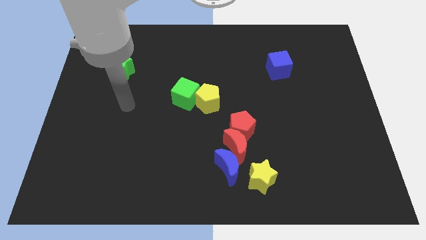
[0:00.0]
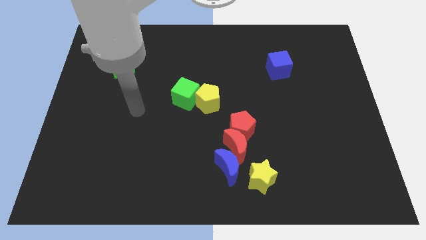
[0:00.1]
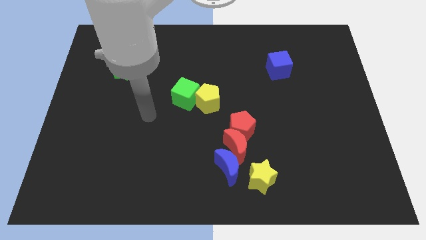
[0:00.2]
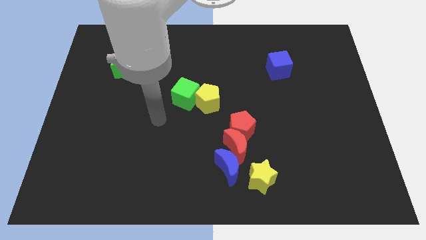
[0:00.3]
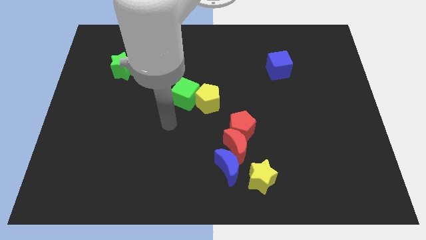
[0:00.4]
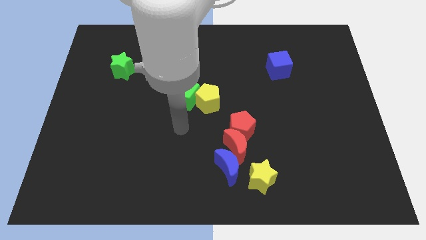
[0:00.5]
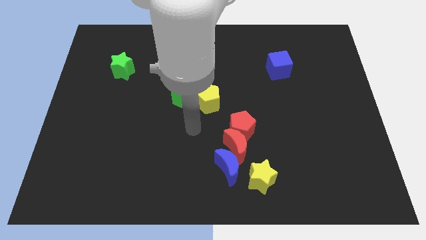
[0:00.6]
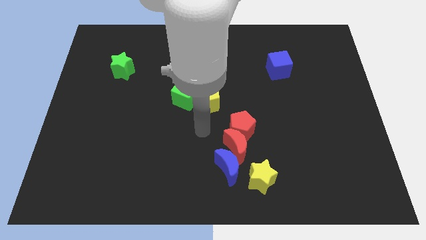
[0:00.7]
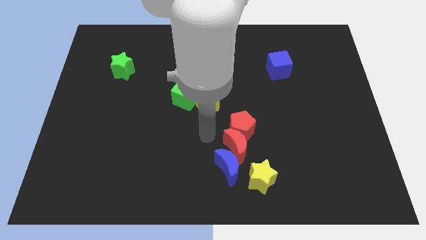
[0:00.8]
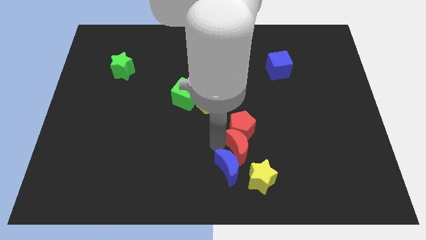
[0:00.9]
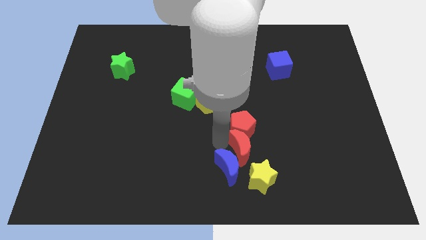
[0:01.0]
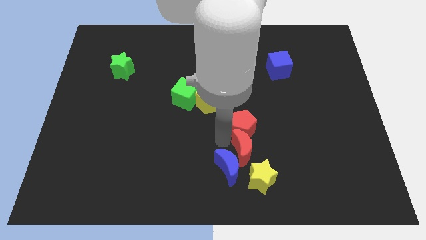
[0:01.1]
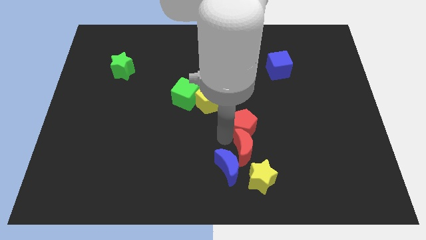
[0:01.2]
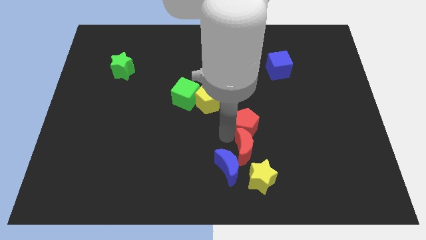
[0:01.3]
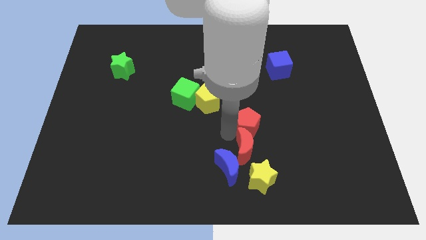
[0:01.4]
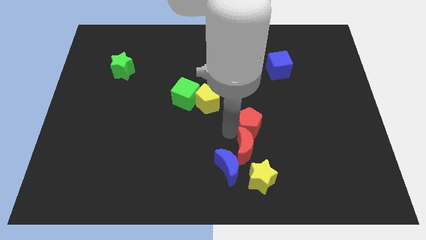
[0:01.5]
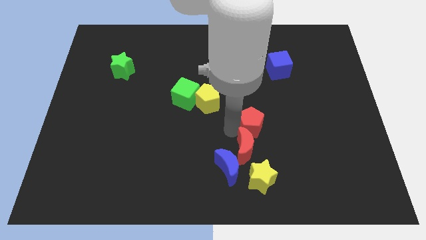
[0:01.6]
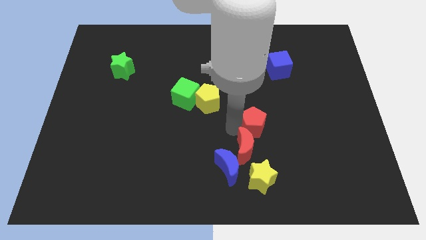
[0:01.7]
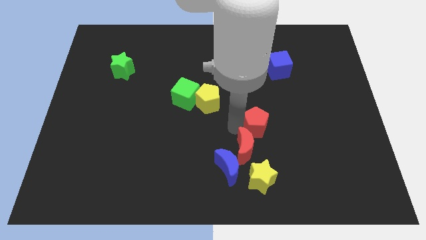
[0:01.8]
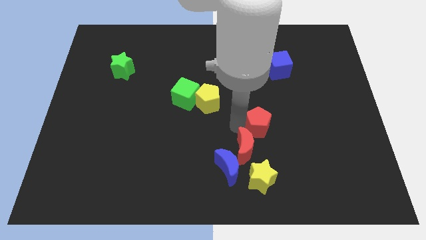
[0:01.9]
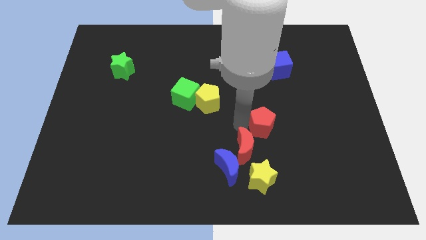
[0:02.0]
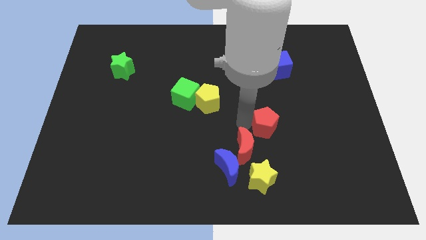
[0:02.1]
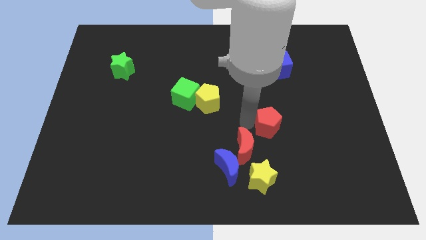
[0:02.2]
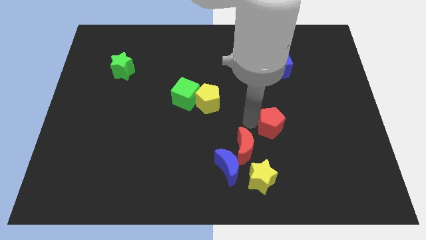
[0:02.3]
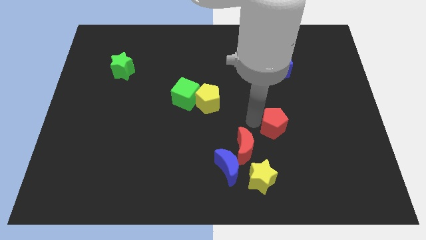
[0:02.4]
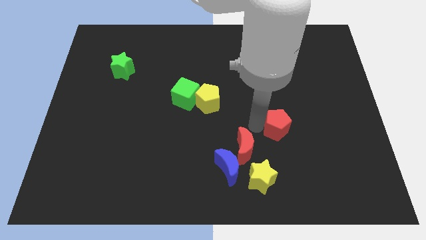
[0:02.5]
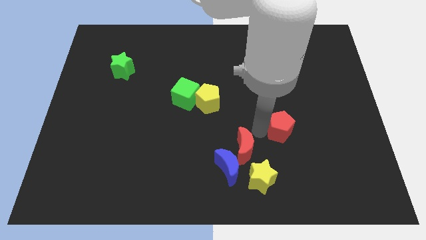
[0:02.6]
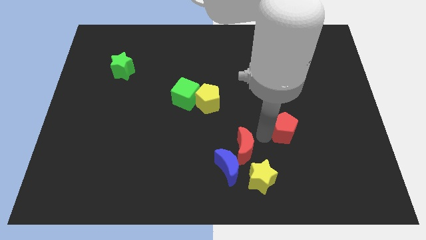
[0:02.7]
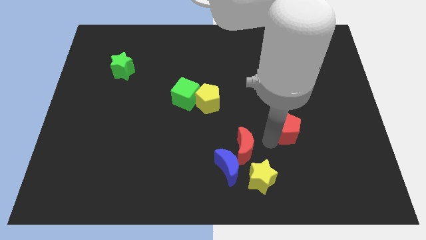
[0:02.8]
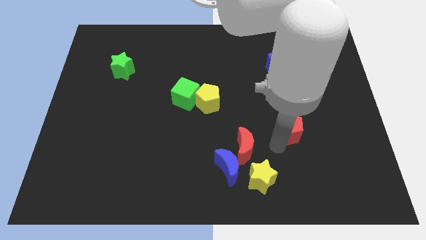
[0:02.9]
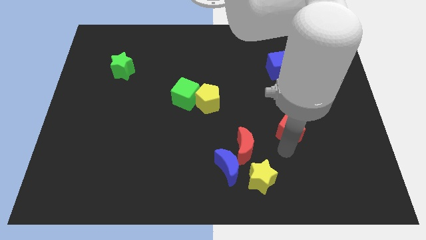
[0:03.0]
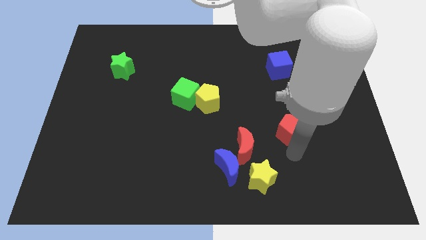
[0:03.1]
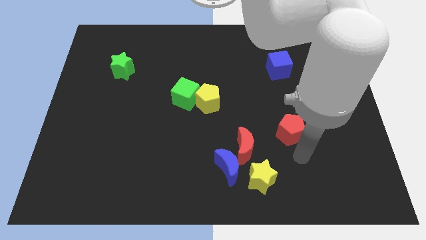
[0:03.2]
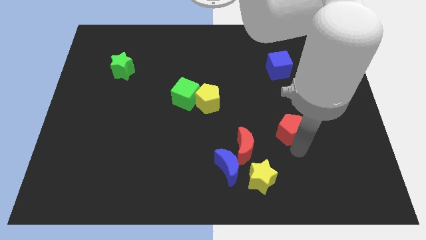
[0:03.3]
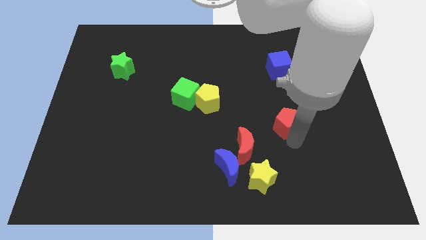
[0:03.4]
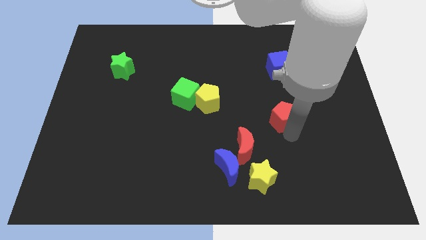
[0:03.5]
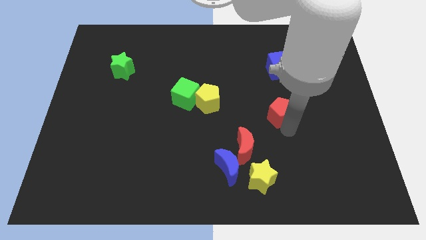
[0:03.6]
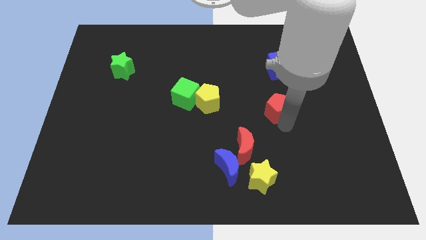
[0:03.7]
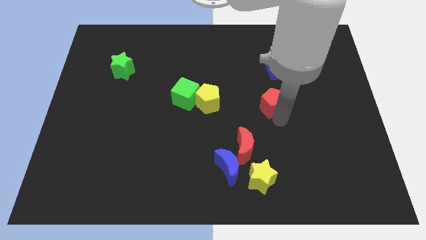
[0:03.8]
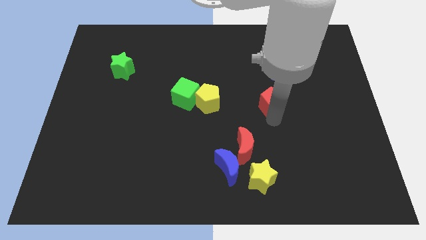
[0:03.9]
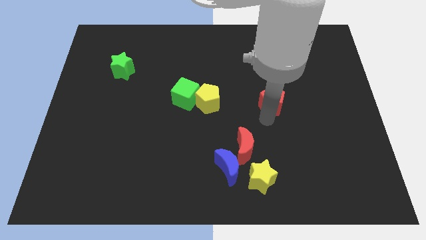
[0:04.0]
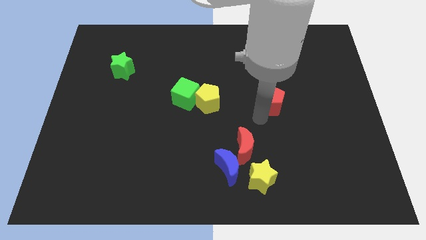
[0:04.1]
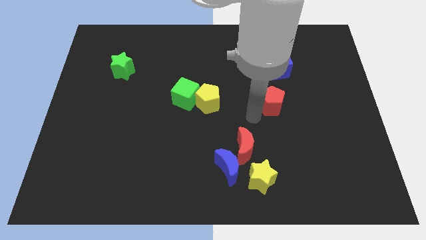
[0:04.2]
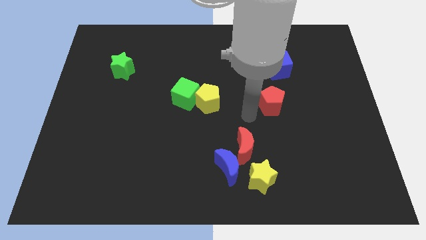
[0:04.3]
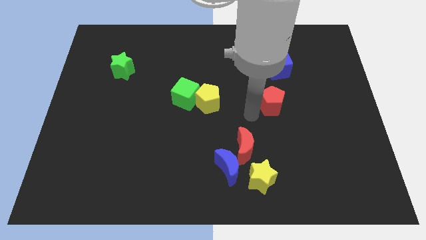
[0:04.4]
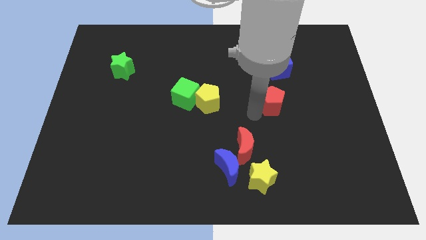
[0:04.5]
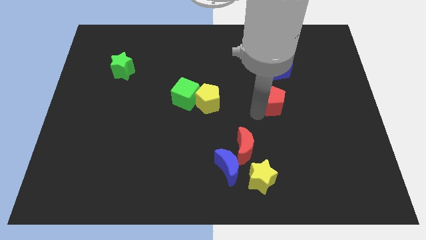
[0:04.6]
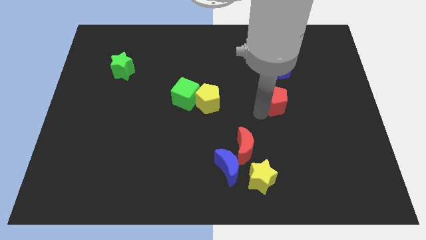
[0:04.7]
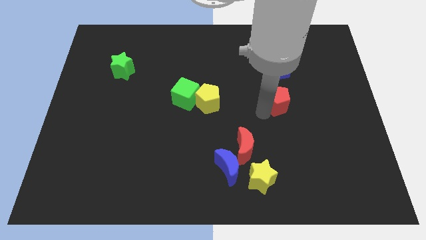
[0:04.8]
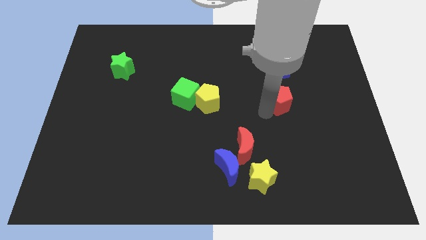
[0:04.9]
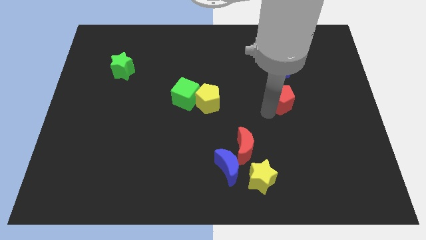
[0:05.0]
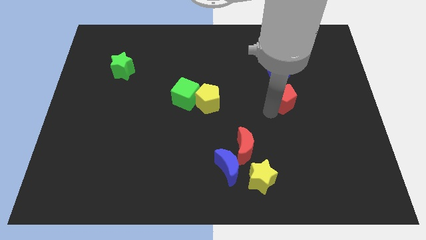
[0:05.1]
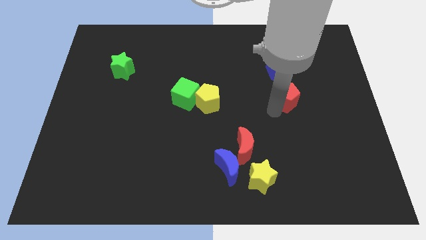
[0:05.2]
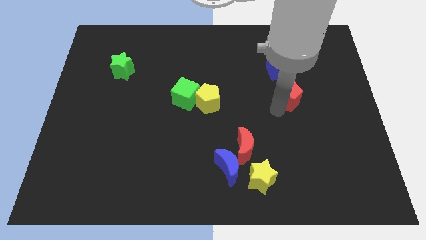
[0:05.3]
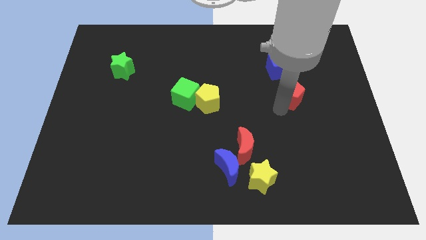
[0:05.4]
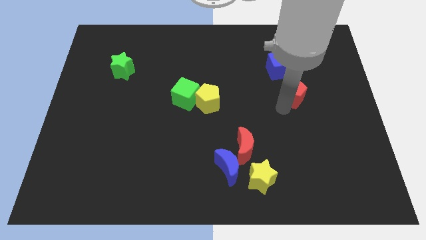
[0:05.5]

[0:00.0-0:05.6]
move the red pentagon diagonally down and to the right of the blue cube

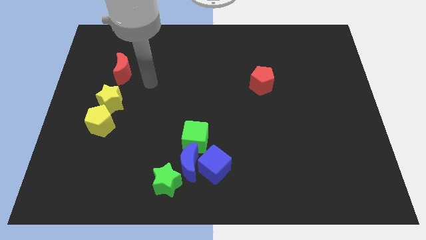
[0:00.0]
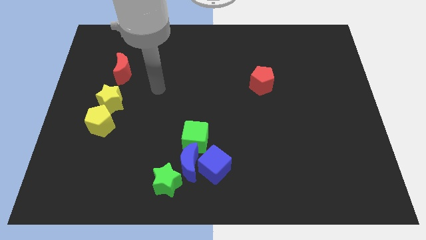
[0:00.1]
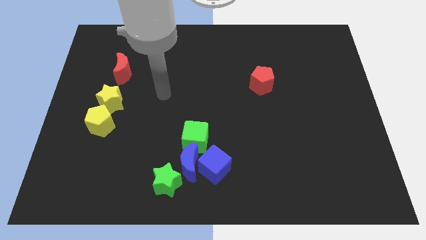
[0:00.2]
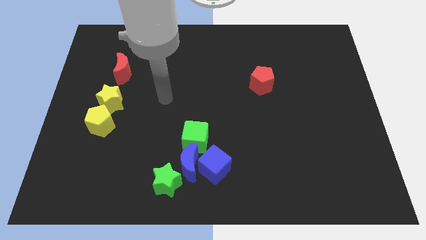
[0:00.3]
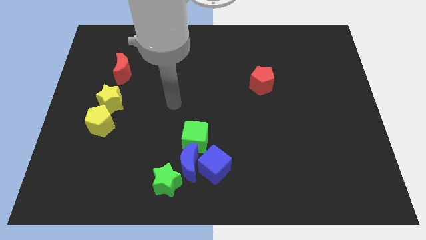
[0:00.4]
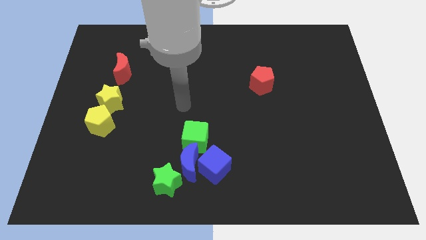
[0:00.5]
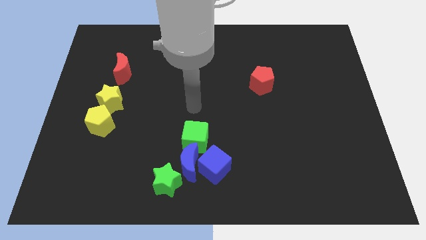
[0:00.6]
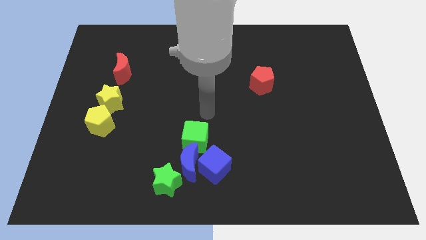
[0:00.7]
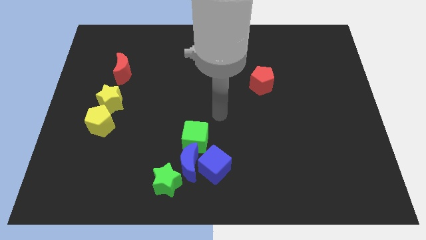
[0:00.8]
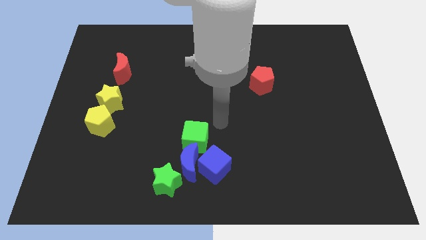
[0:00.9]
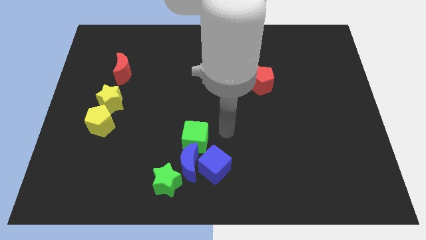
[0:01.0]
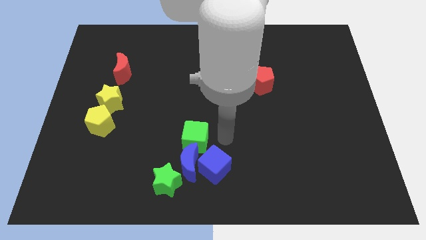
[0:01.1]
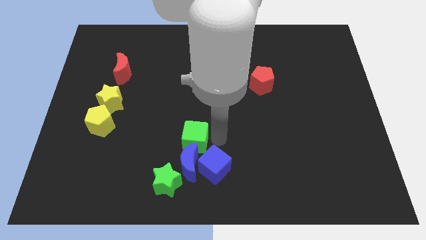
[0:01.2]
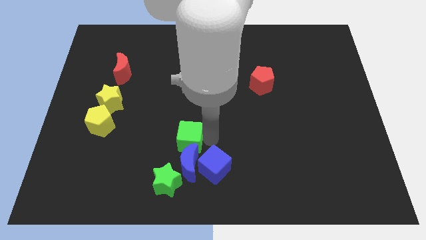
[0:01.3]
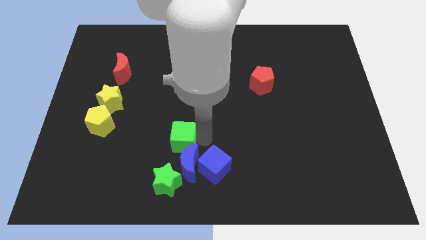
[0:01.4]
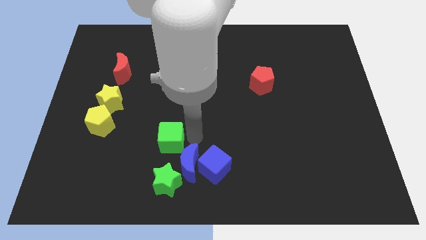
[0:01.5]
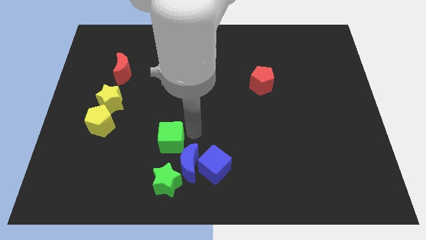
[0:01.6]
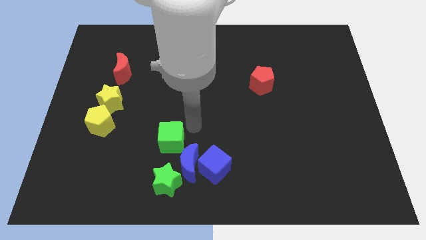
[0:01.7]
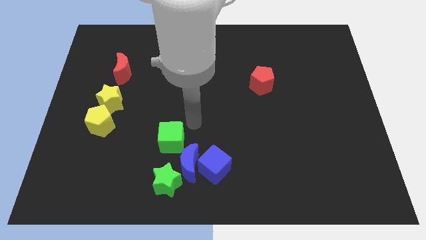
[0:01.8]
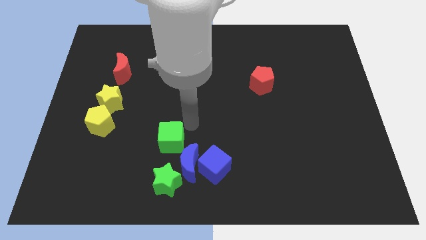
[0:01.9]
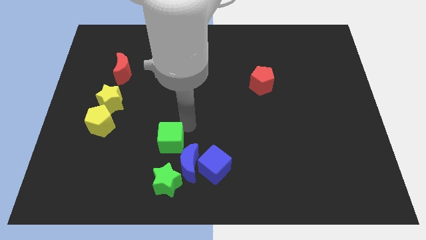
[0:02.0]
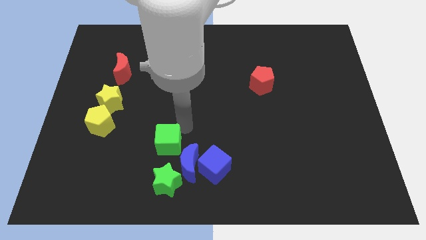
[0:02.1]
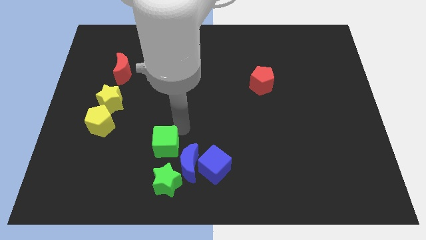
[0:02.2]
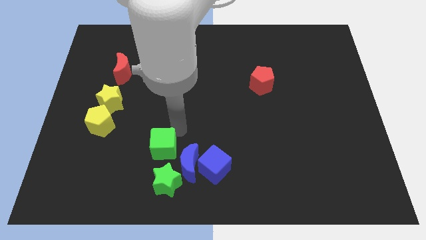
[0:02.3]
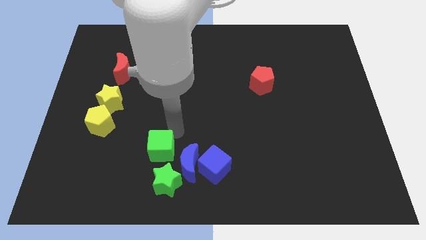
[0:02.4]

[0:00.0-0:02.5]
move the green cube to the top left of the green star
